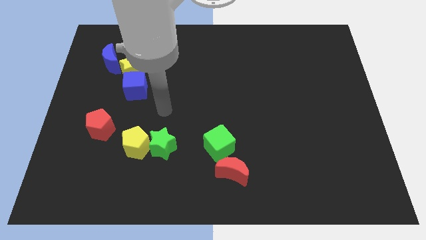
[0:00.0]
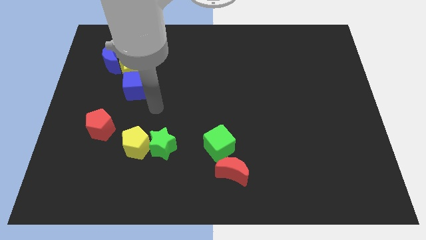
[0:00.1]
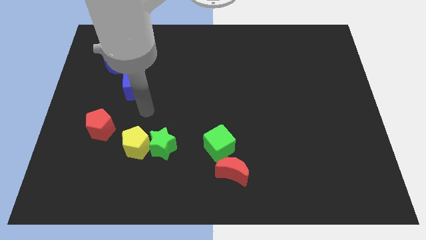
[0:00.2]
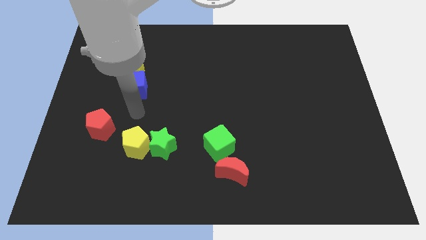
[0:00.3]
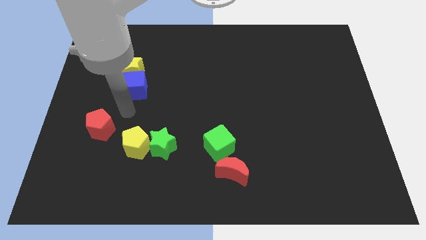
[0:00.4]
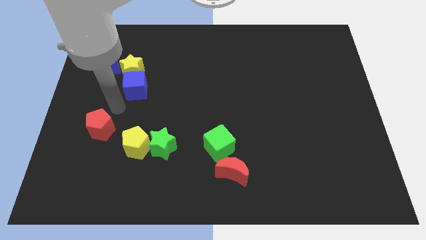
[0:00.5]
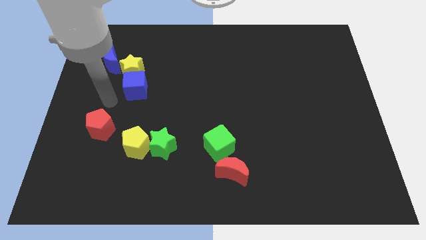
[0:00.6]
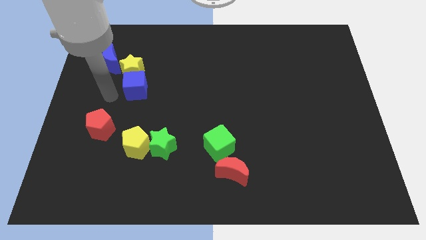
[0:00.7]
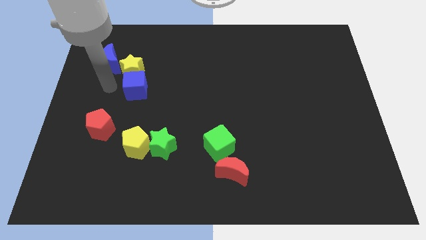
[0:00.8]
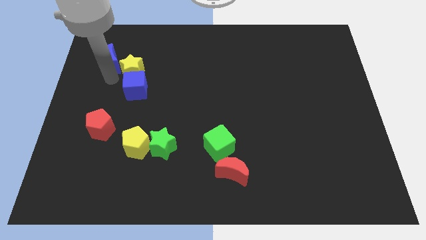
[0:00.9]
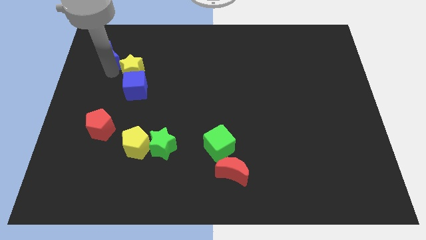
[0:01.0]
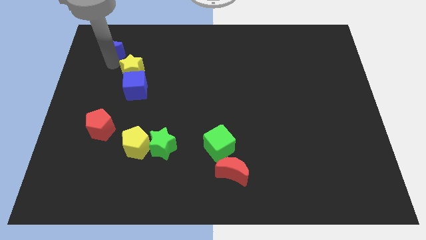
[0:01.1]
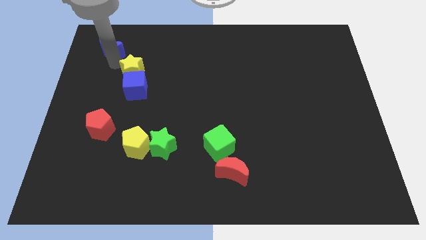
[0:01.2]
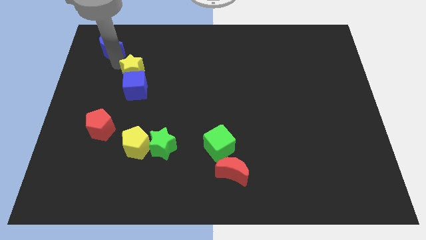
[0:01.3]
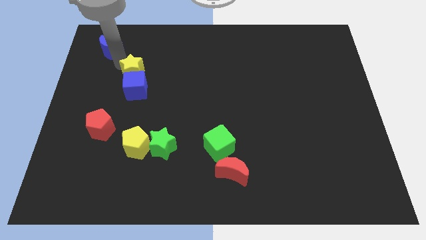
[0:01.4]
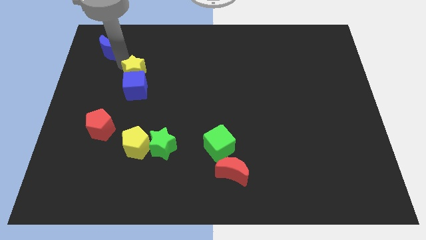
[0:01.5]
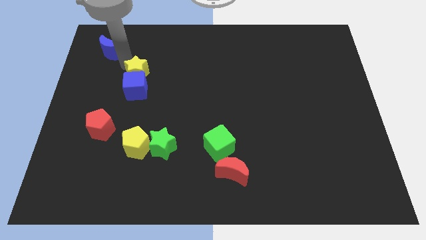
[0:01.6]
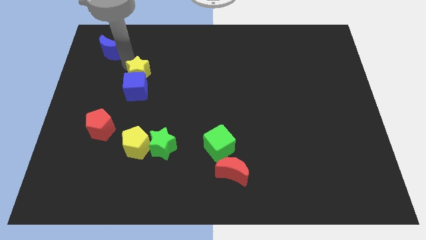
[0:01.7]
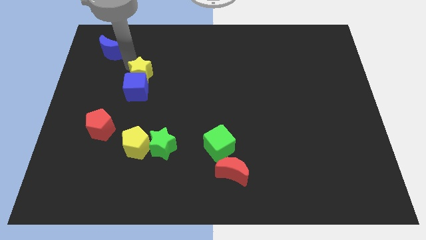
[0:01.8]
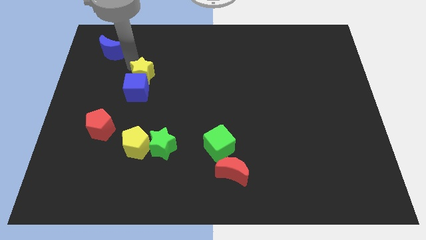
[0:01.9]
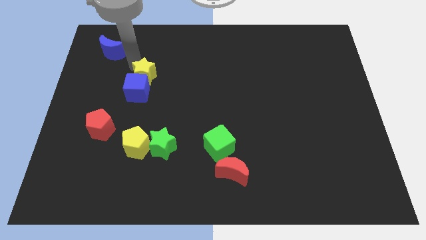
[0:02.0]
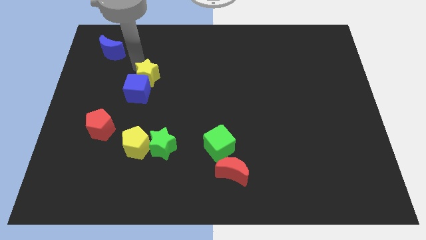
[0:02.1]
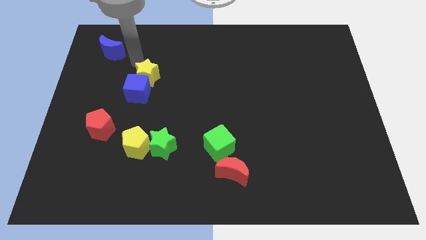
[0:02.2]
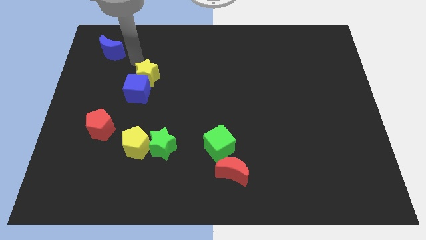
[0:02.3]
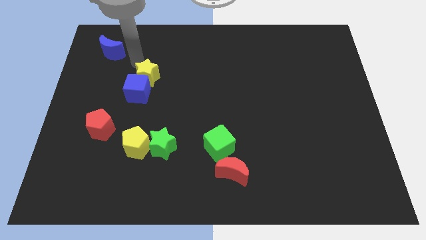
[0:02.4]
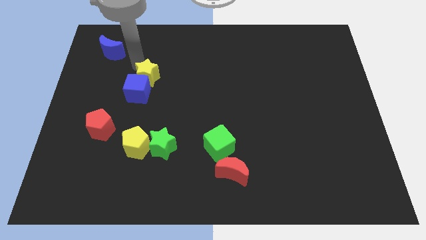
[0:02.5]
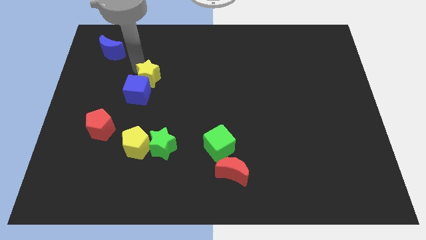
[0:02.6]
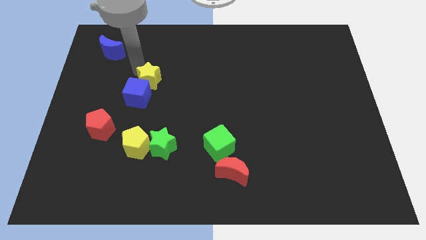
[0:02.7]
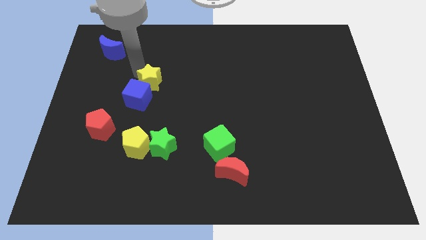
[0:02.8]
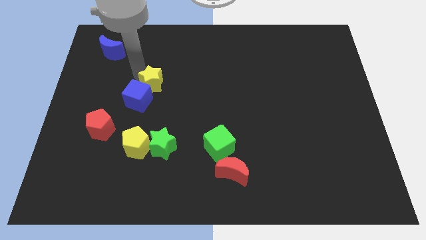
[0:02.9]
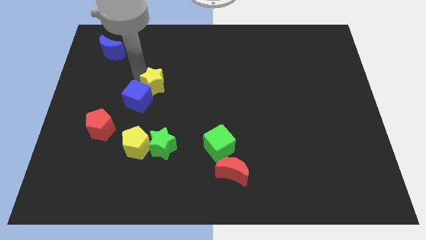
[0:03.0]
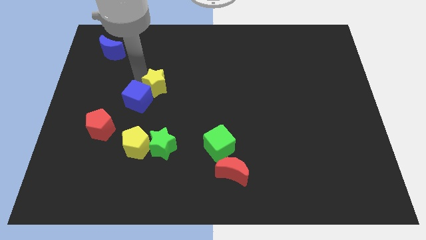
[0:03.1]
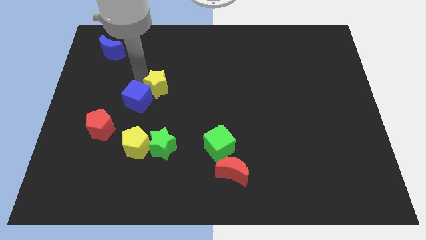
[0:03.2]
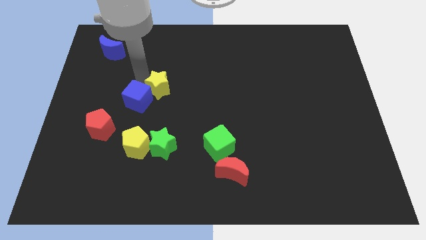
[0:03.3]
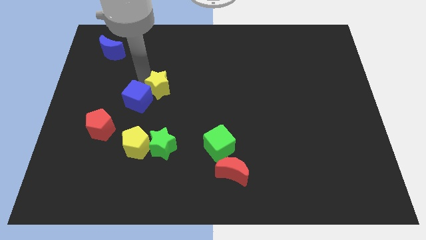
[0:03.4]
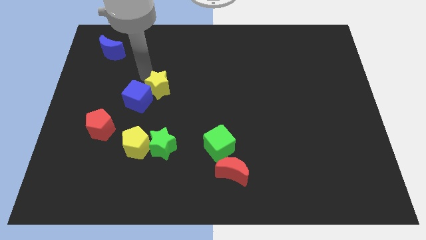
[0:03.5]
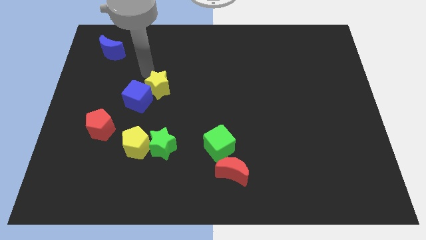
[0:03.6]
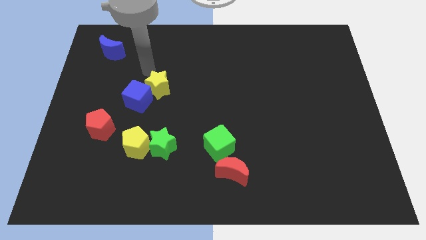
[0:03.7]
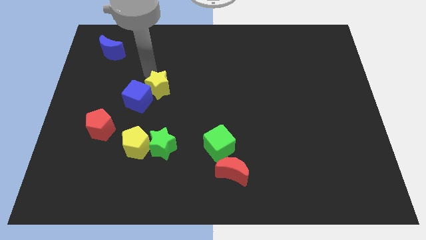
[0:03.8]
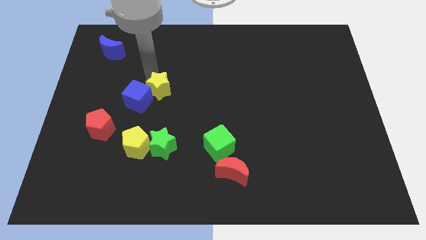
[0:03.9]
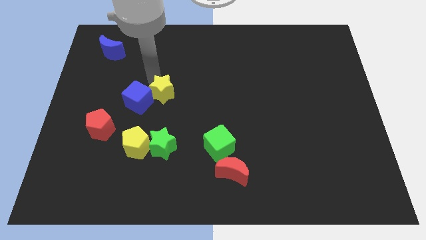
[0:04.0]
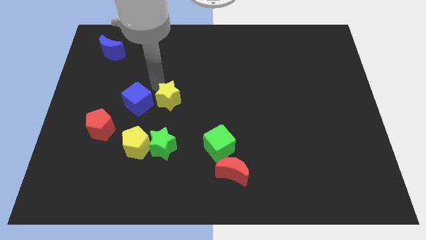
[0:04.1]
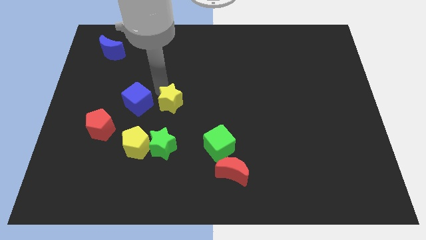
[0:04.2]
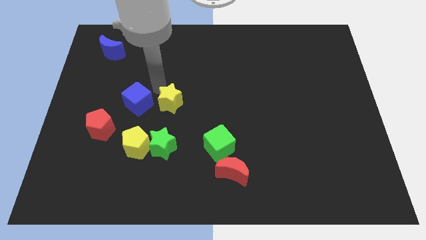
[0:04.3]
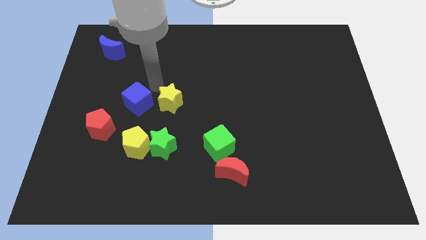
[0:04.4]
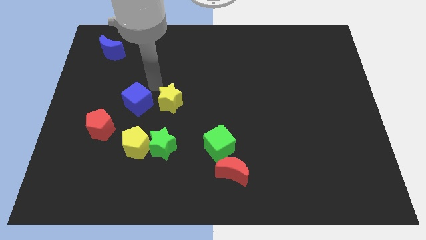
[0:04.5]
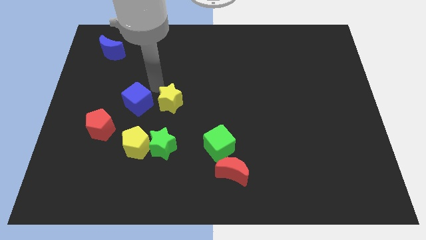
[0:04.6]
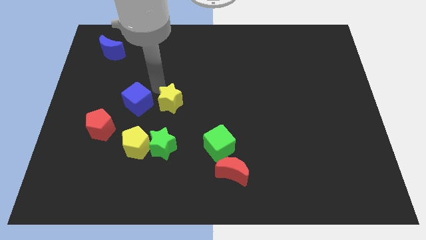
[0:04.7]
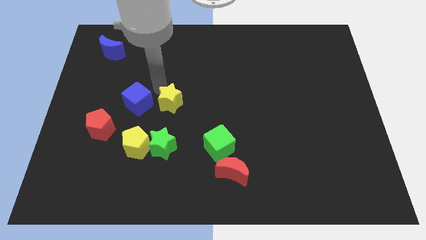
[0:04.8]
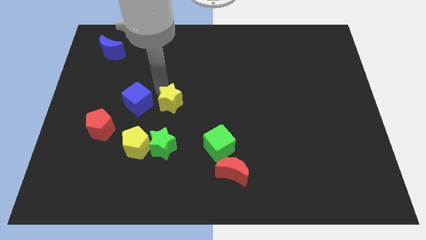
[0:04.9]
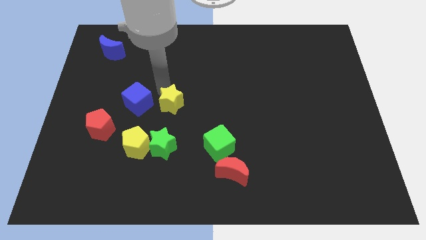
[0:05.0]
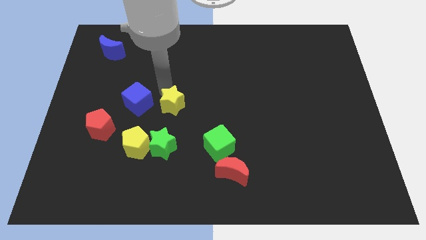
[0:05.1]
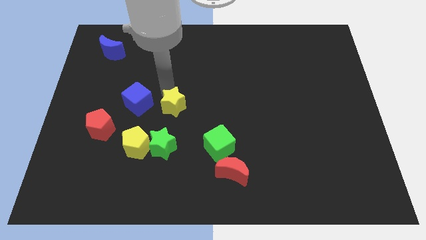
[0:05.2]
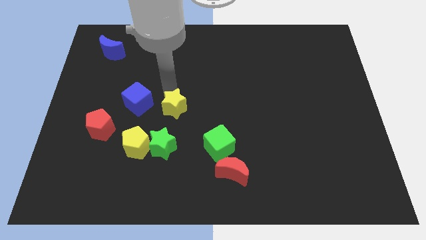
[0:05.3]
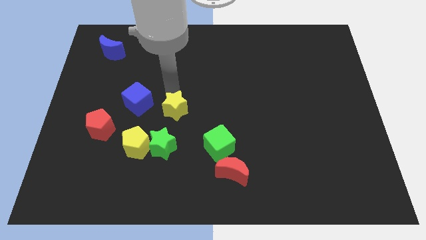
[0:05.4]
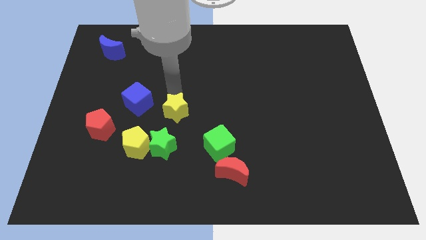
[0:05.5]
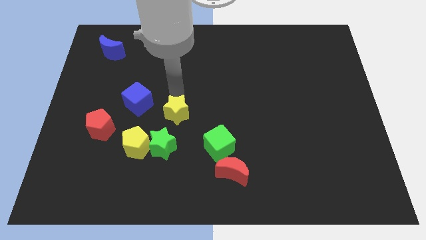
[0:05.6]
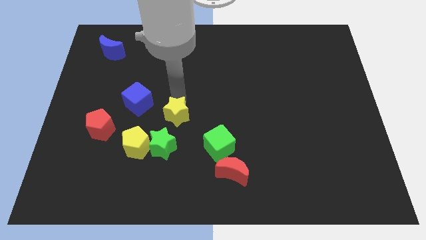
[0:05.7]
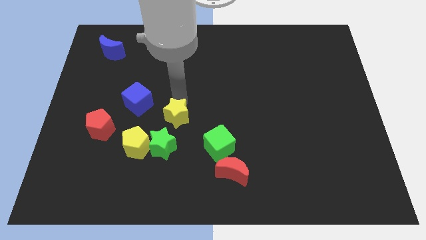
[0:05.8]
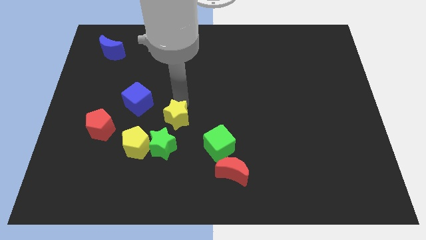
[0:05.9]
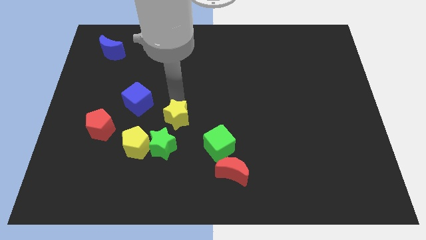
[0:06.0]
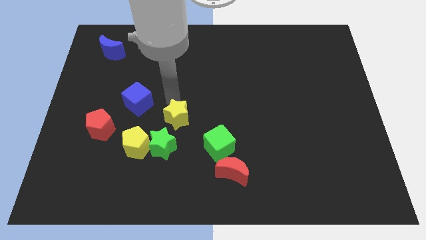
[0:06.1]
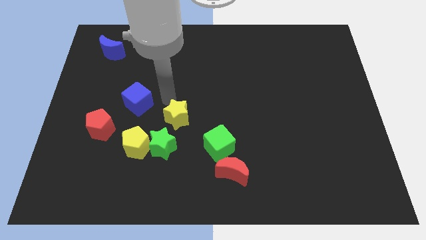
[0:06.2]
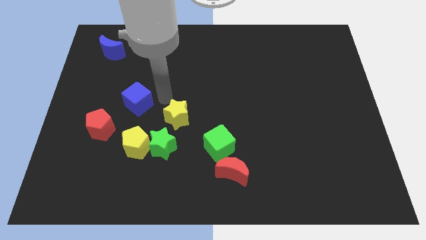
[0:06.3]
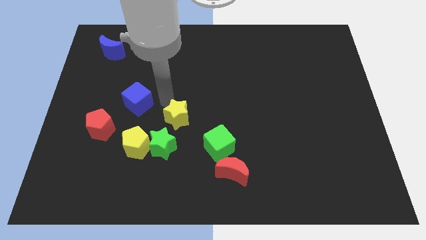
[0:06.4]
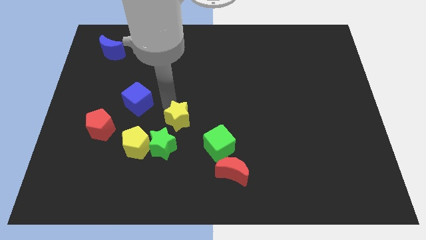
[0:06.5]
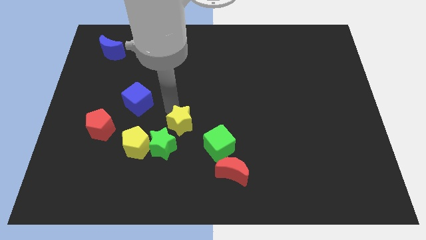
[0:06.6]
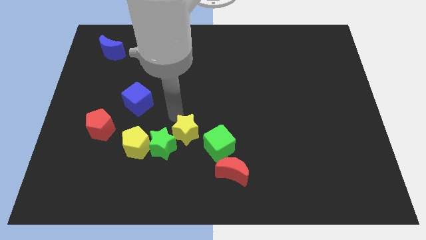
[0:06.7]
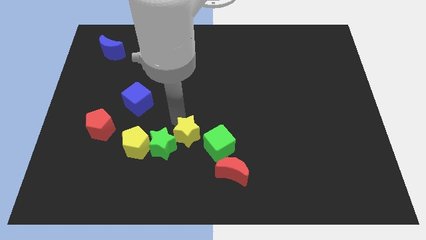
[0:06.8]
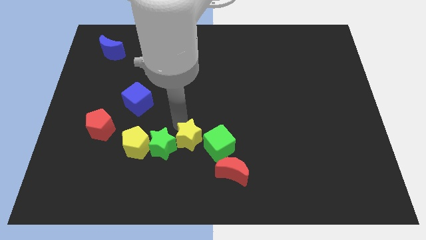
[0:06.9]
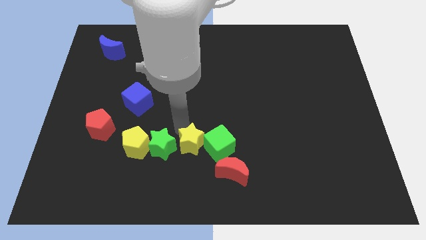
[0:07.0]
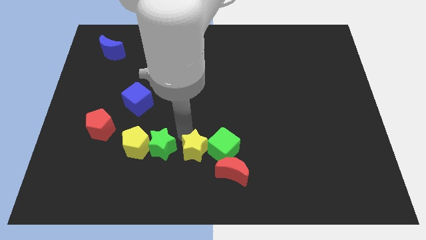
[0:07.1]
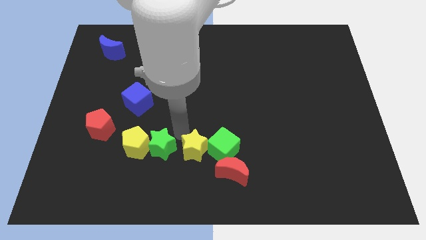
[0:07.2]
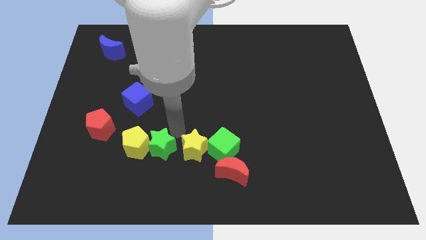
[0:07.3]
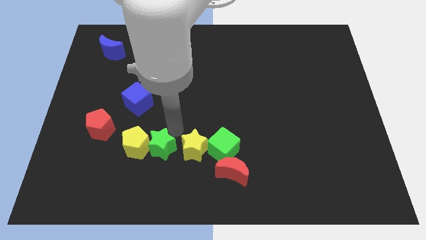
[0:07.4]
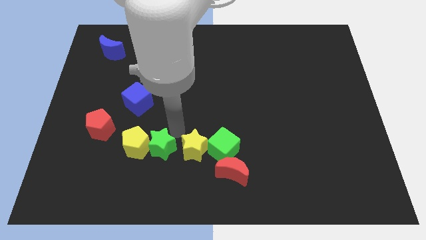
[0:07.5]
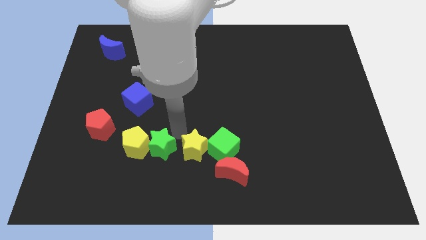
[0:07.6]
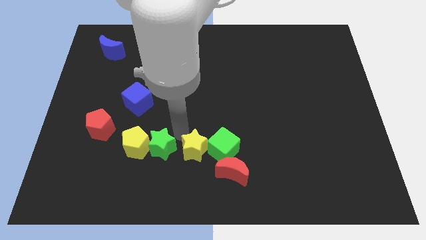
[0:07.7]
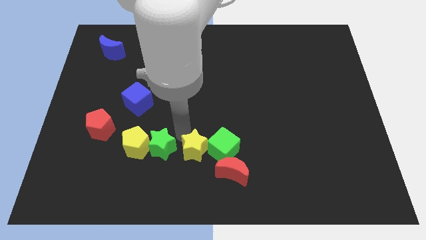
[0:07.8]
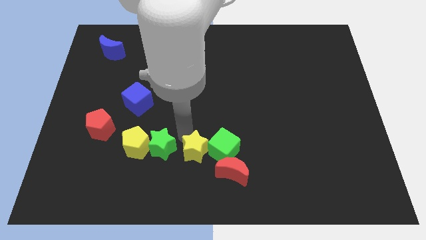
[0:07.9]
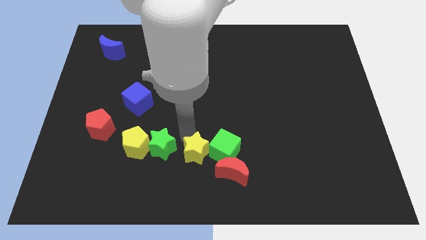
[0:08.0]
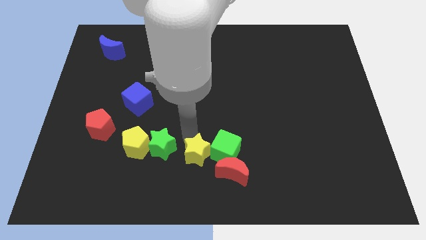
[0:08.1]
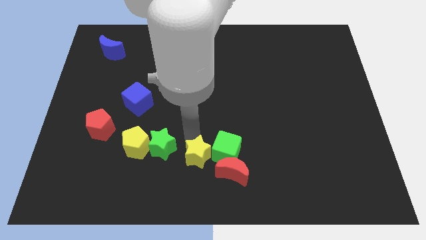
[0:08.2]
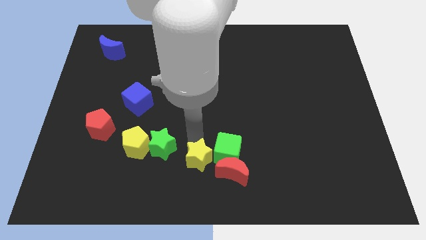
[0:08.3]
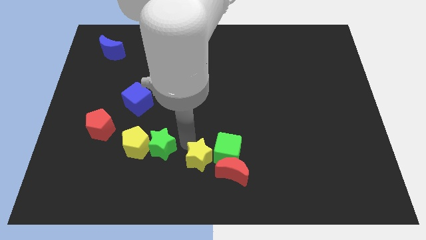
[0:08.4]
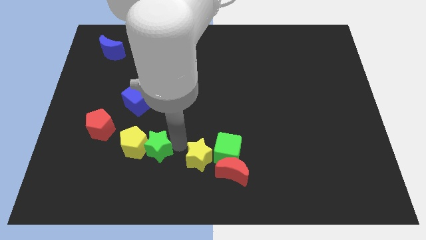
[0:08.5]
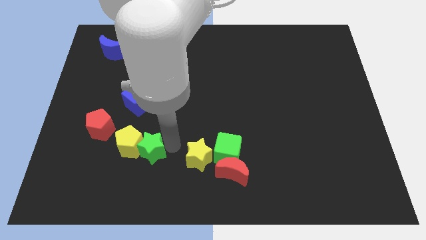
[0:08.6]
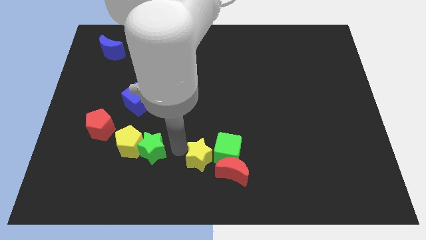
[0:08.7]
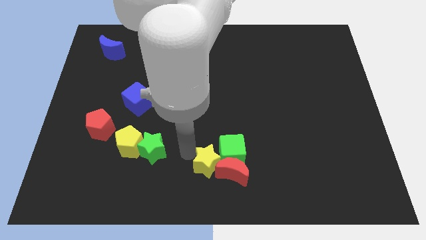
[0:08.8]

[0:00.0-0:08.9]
move the yellow star close to the red moon
